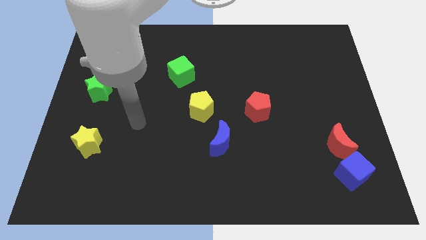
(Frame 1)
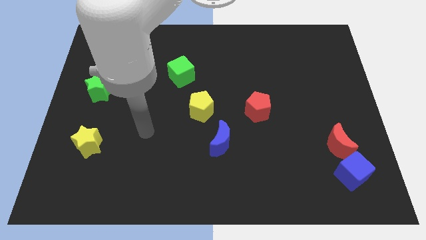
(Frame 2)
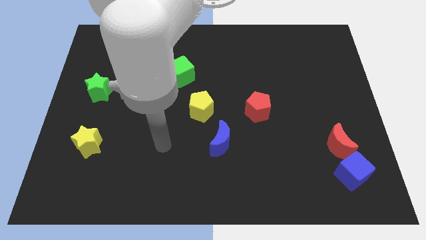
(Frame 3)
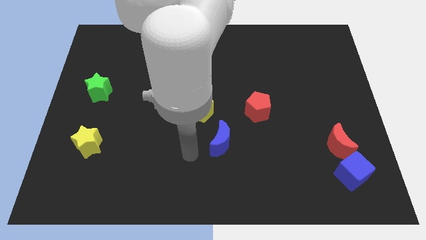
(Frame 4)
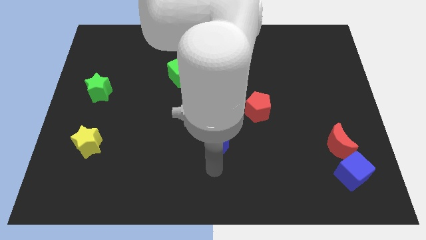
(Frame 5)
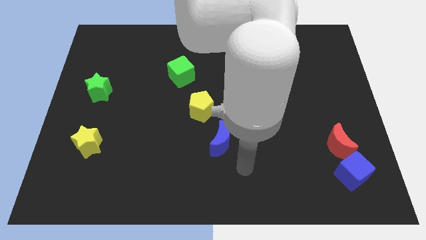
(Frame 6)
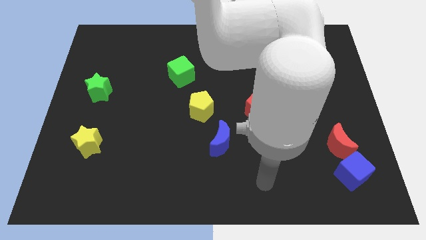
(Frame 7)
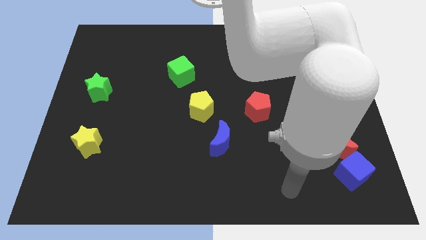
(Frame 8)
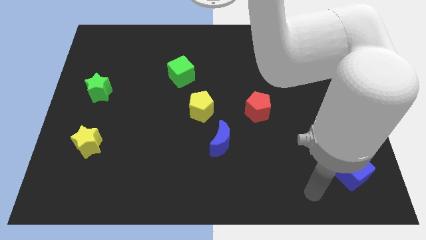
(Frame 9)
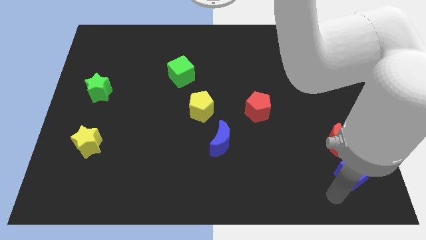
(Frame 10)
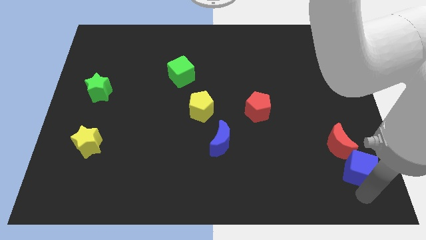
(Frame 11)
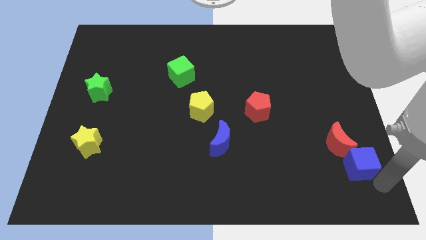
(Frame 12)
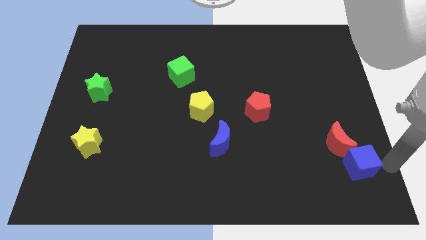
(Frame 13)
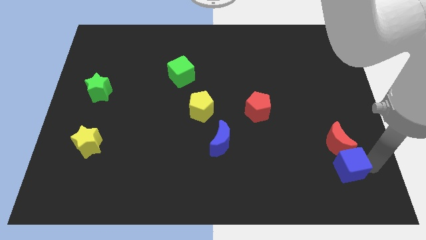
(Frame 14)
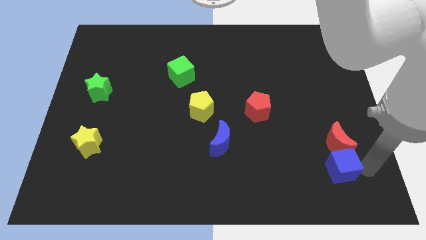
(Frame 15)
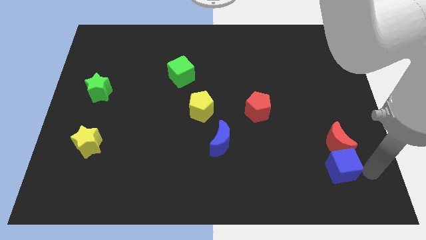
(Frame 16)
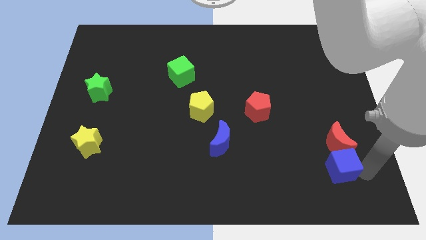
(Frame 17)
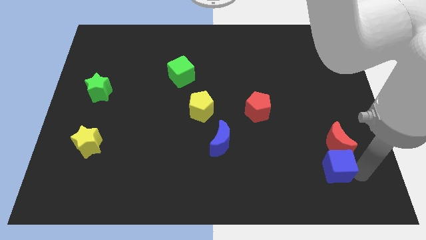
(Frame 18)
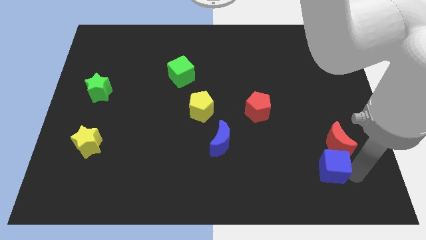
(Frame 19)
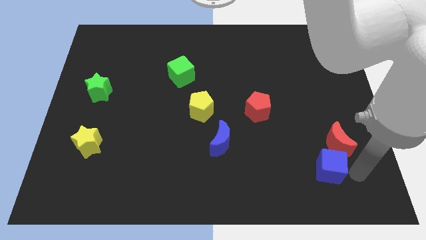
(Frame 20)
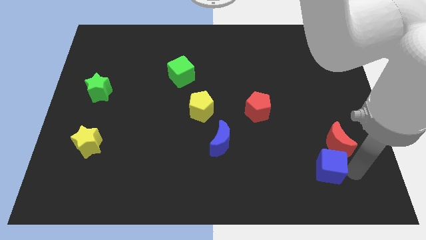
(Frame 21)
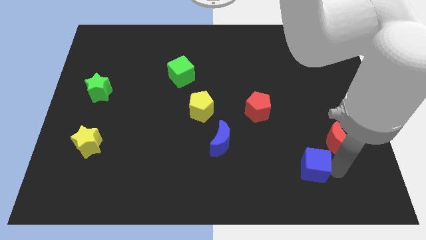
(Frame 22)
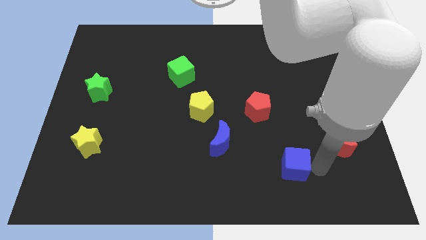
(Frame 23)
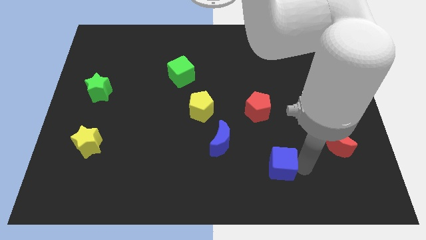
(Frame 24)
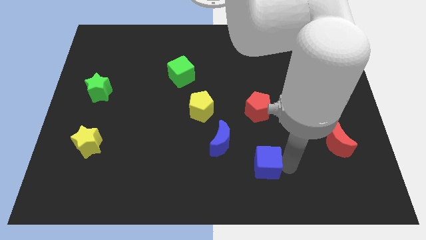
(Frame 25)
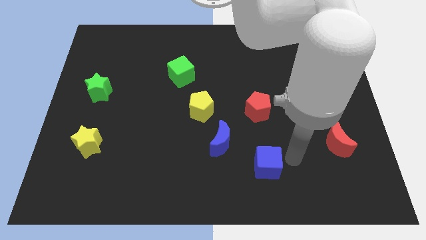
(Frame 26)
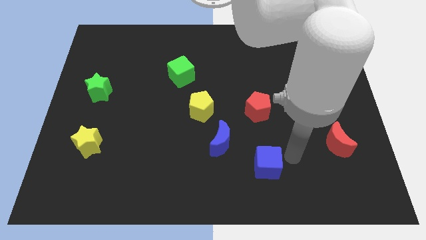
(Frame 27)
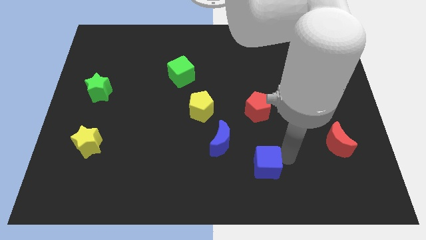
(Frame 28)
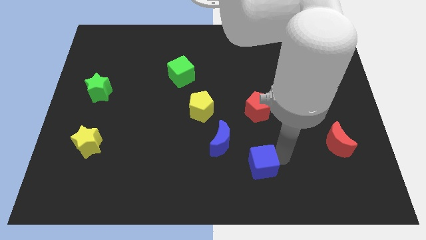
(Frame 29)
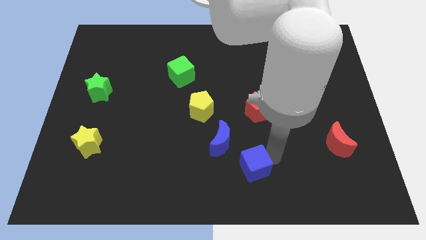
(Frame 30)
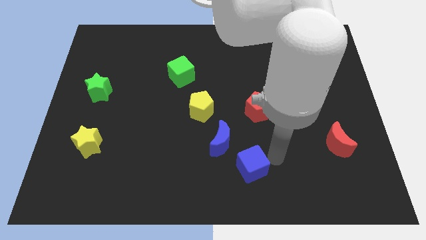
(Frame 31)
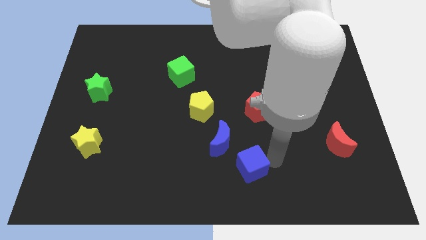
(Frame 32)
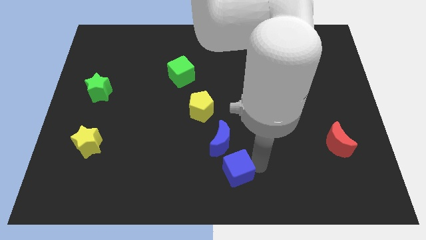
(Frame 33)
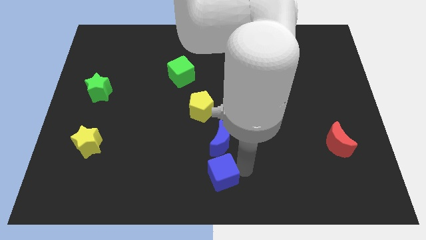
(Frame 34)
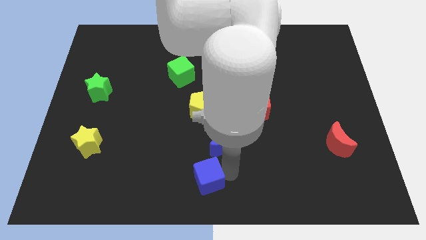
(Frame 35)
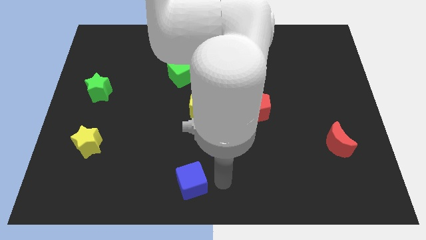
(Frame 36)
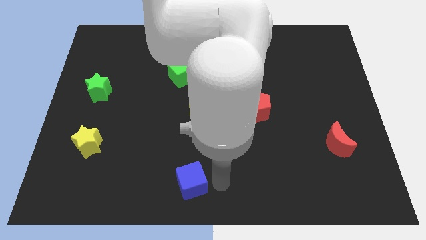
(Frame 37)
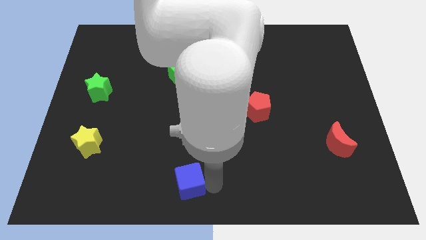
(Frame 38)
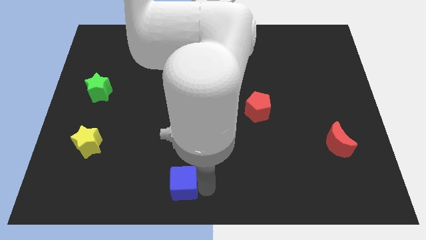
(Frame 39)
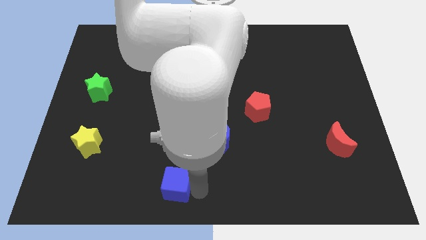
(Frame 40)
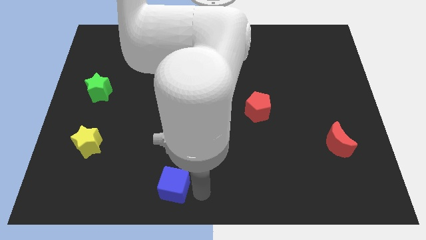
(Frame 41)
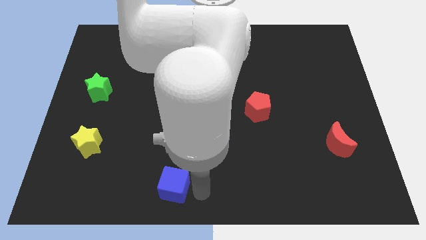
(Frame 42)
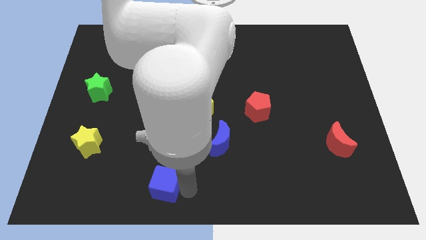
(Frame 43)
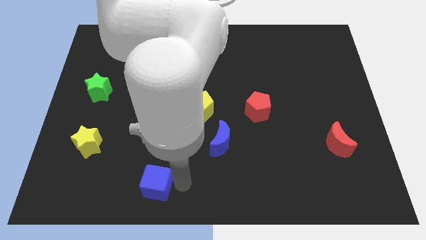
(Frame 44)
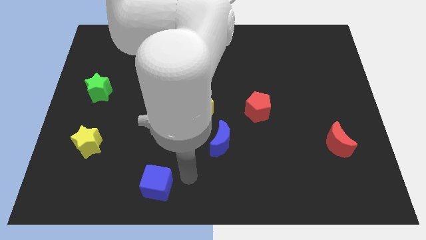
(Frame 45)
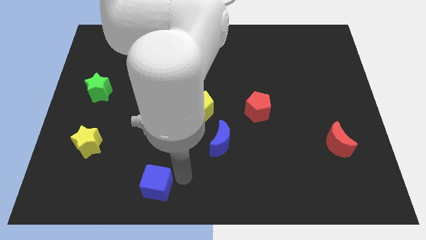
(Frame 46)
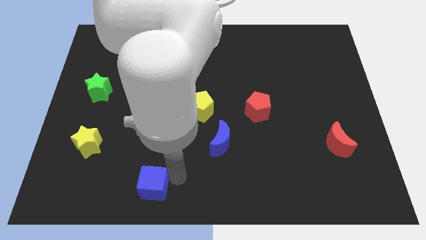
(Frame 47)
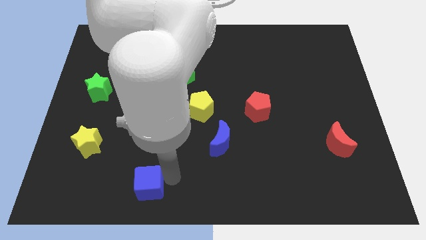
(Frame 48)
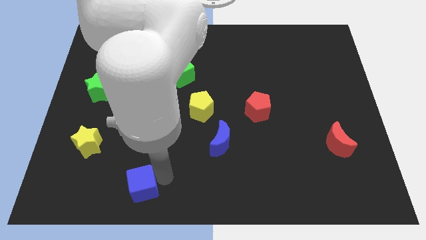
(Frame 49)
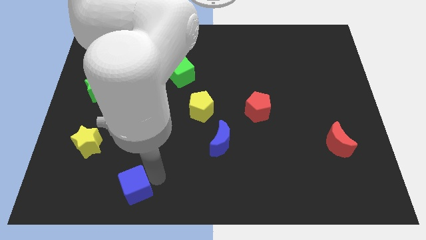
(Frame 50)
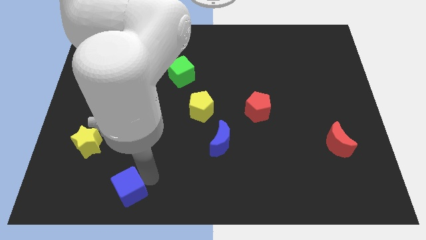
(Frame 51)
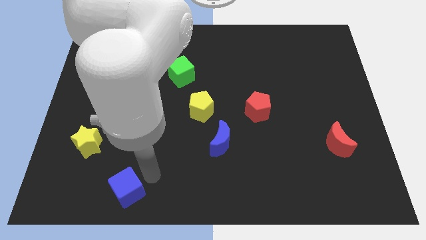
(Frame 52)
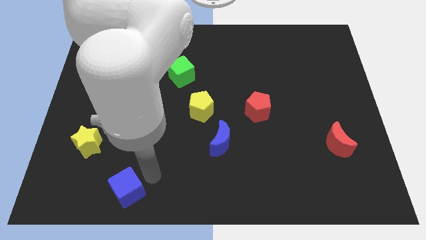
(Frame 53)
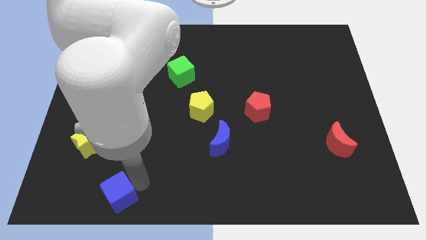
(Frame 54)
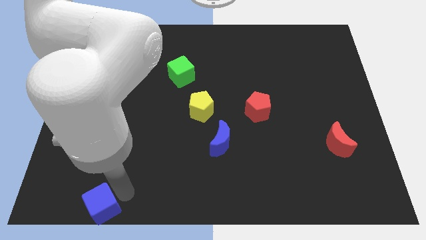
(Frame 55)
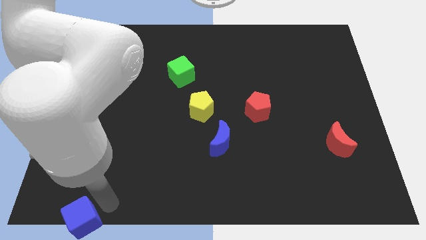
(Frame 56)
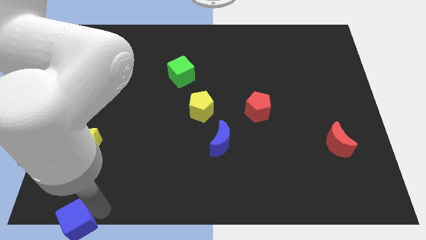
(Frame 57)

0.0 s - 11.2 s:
push the blue cube to the bottom left of the board

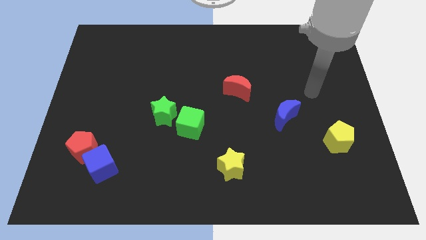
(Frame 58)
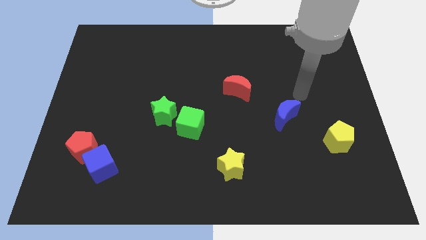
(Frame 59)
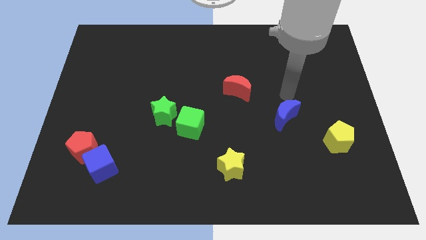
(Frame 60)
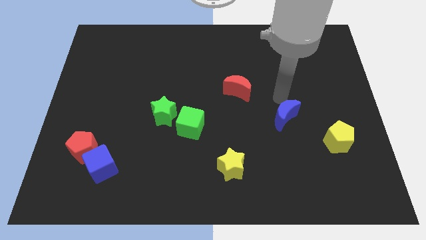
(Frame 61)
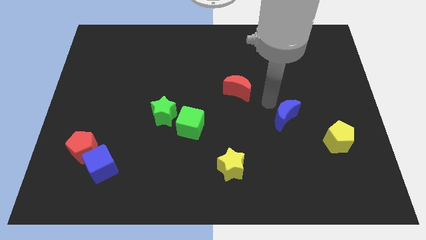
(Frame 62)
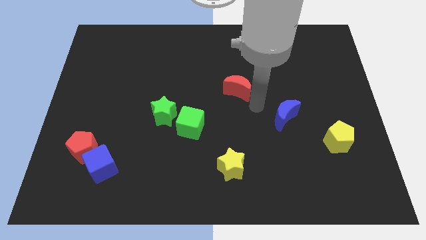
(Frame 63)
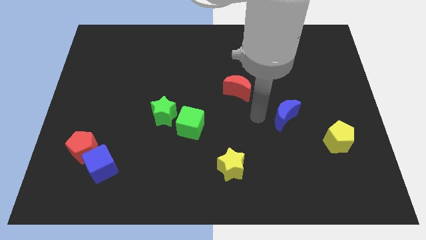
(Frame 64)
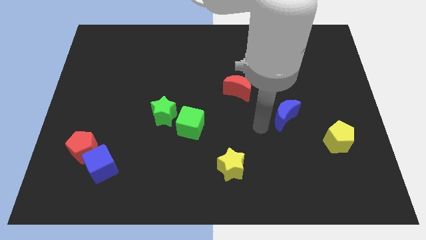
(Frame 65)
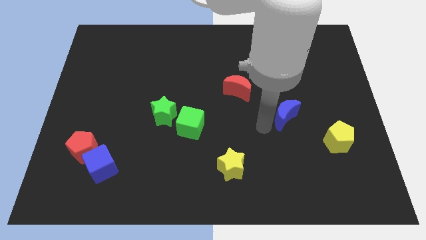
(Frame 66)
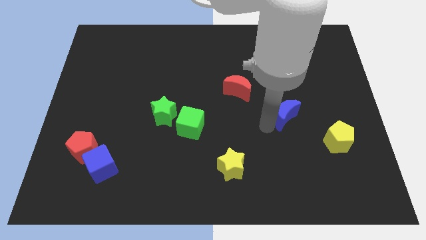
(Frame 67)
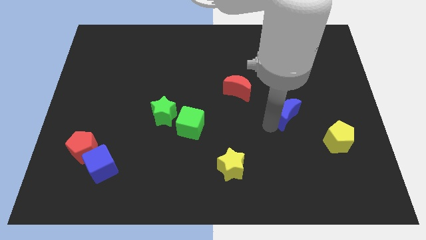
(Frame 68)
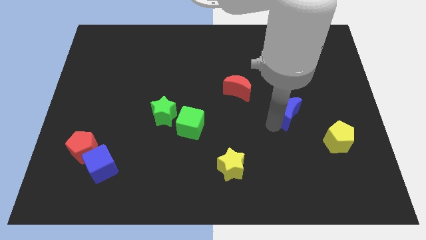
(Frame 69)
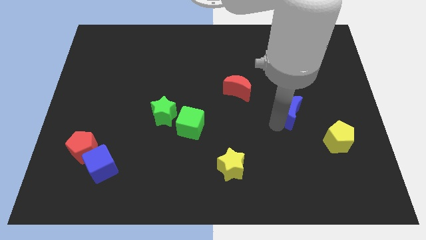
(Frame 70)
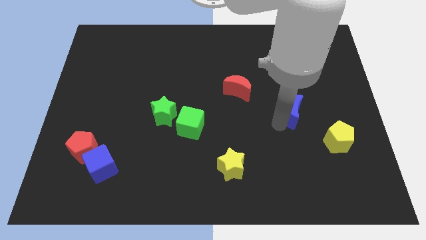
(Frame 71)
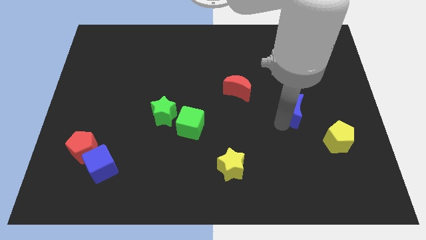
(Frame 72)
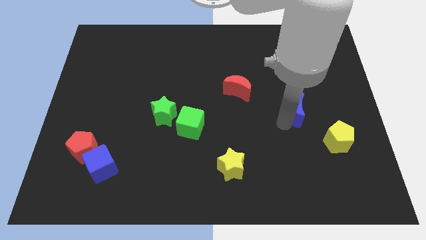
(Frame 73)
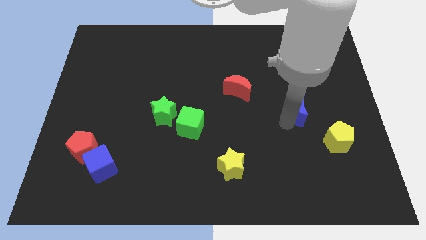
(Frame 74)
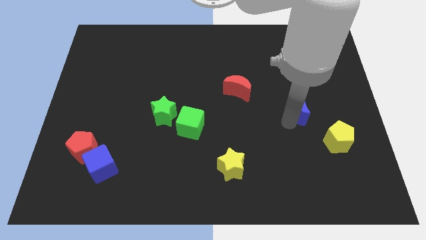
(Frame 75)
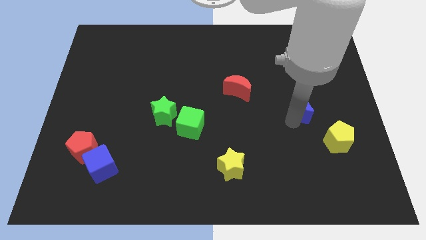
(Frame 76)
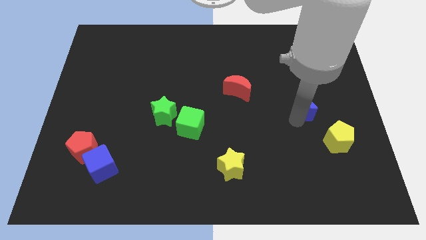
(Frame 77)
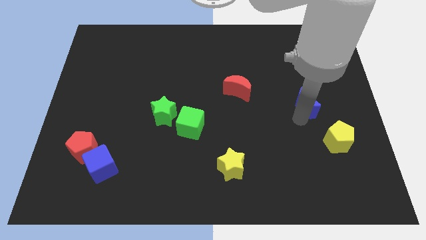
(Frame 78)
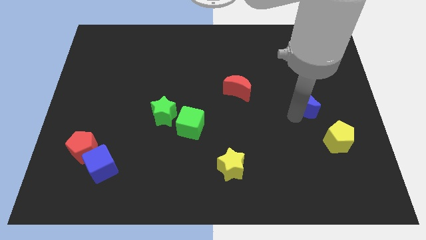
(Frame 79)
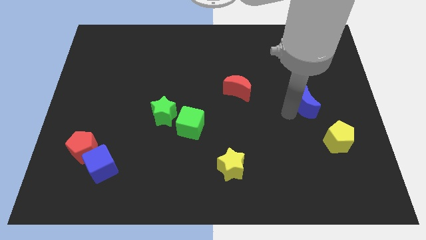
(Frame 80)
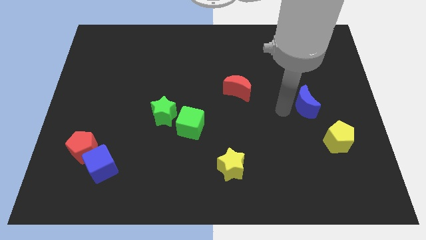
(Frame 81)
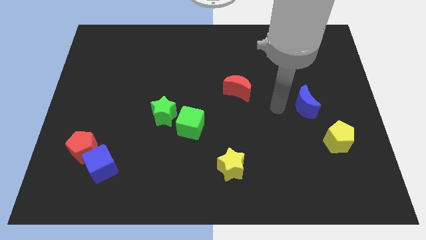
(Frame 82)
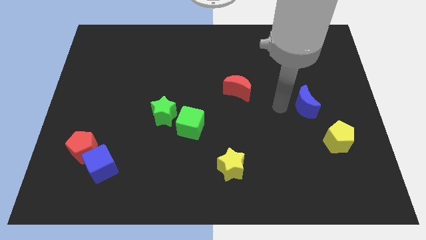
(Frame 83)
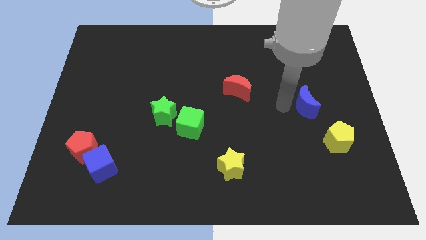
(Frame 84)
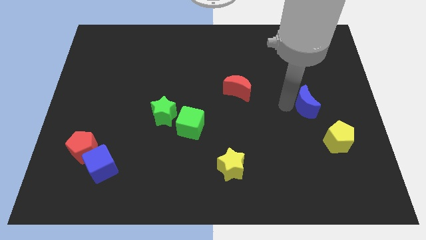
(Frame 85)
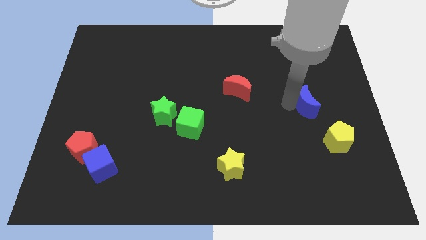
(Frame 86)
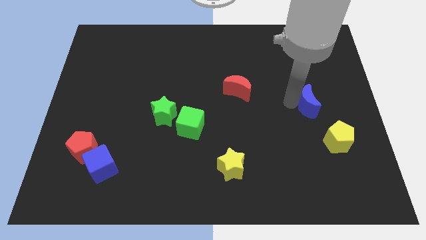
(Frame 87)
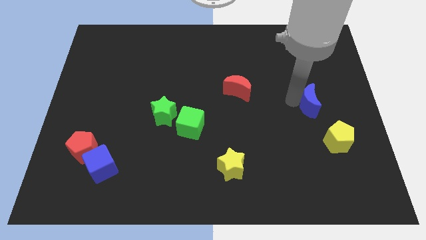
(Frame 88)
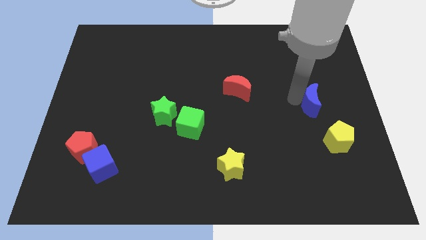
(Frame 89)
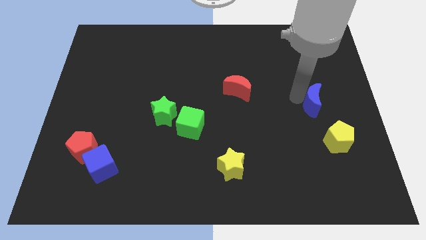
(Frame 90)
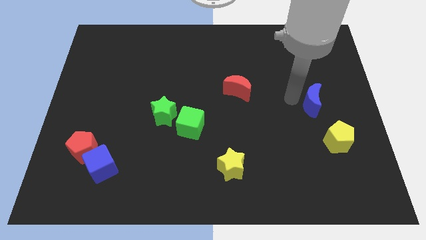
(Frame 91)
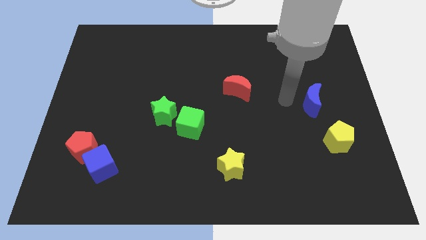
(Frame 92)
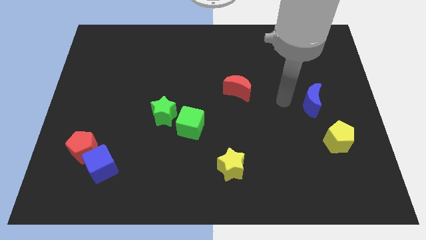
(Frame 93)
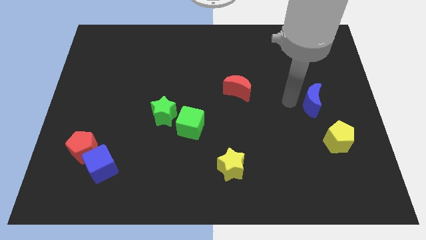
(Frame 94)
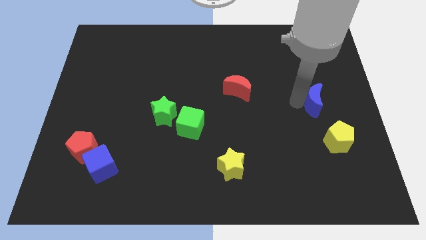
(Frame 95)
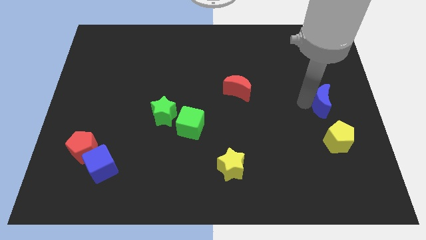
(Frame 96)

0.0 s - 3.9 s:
push the blue moon to the center right
